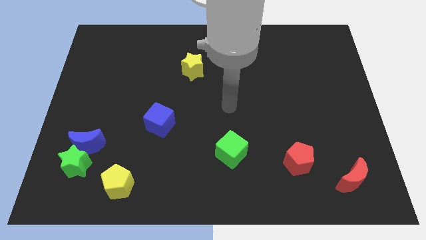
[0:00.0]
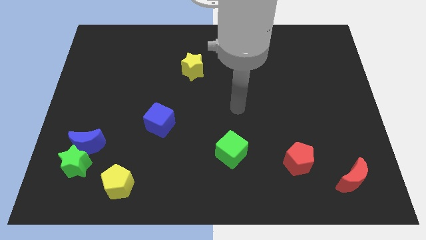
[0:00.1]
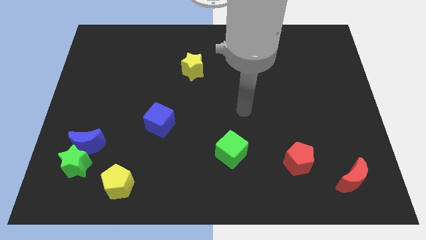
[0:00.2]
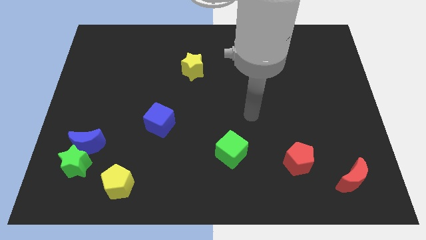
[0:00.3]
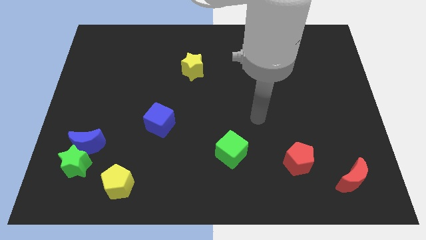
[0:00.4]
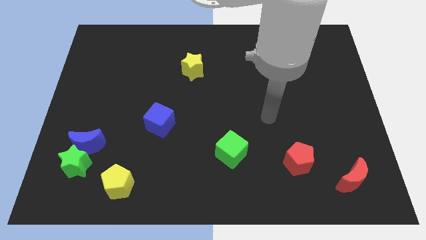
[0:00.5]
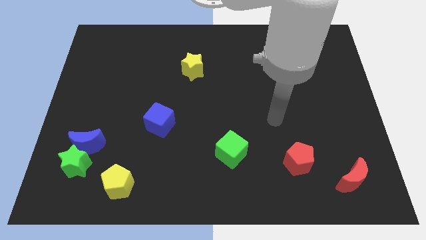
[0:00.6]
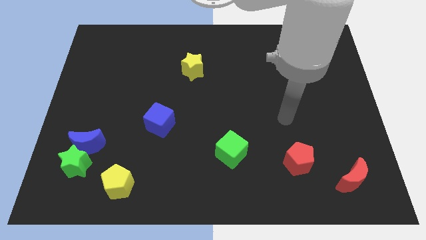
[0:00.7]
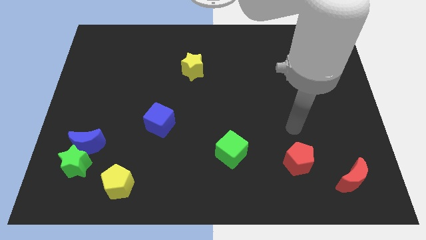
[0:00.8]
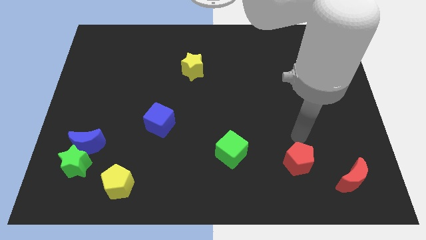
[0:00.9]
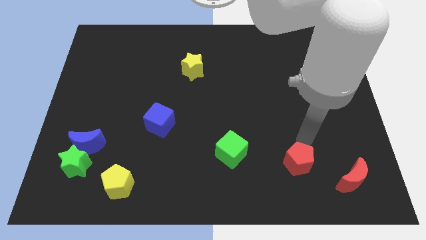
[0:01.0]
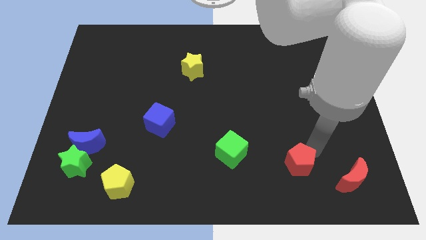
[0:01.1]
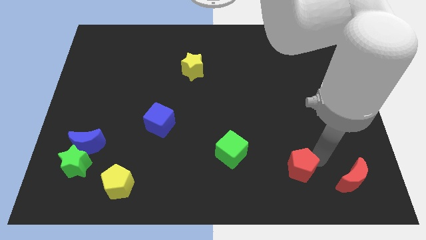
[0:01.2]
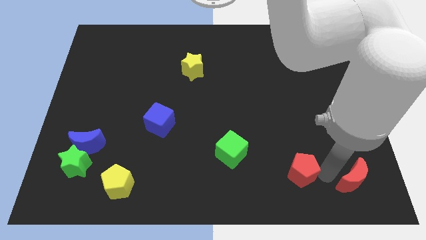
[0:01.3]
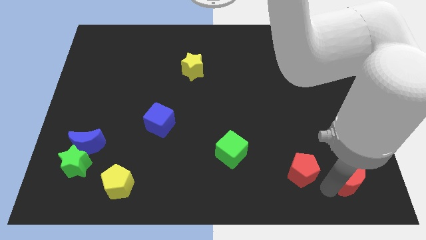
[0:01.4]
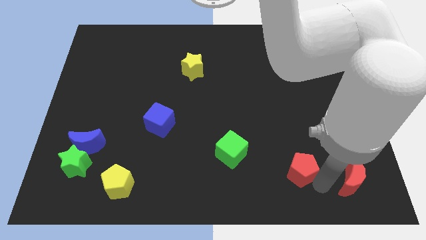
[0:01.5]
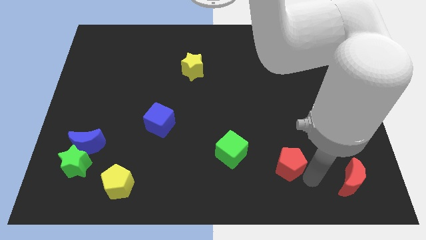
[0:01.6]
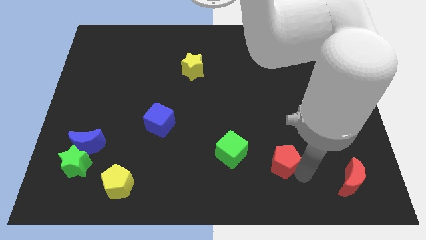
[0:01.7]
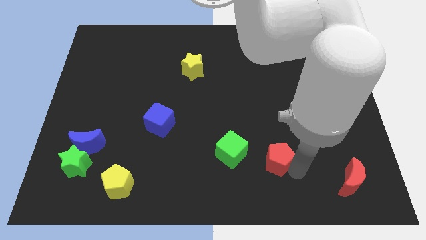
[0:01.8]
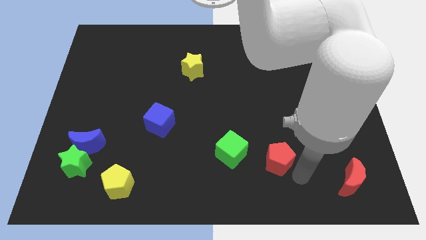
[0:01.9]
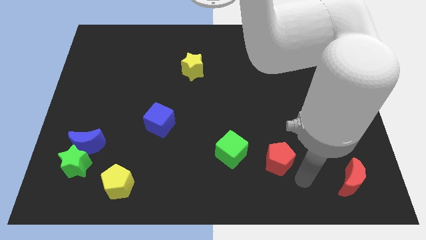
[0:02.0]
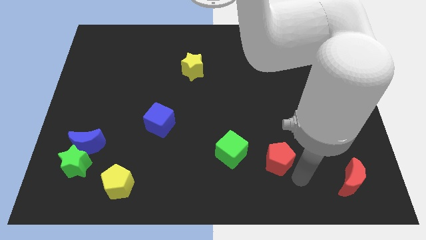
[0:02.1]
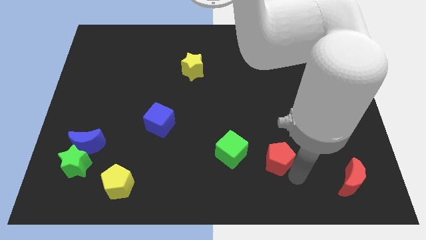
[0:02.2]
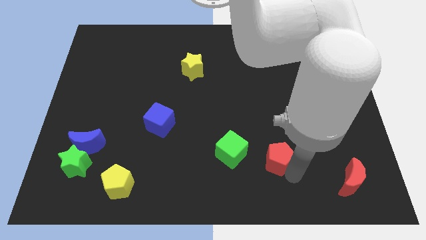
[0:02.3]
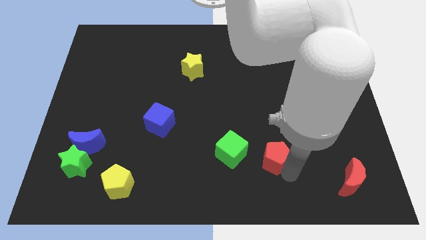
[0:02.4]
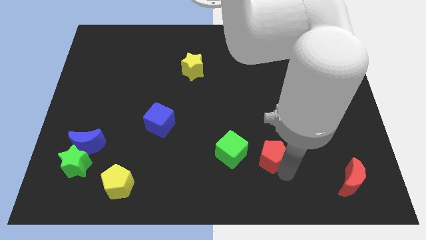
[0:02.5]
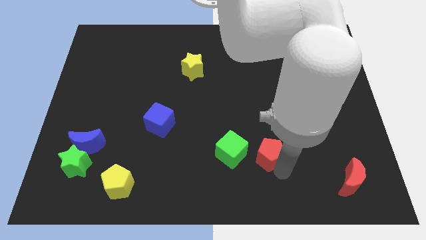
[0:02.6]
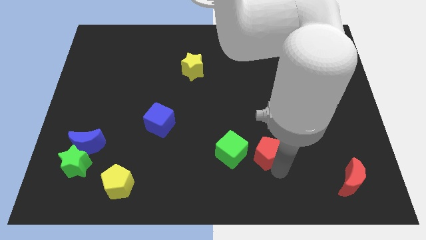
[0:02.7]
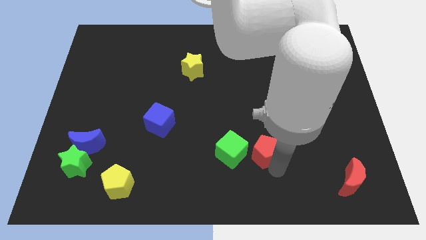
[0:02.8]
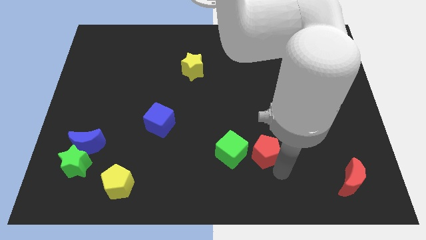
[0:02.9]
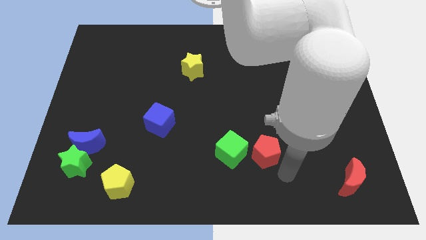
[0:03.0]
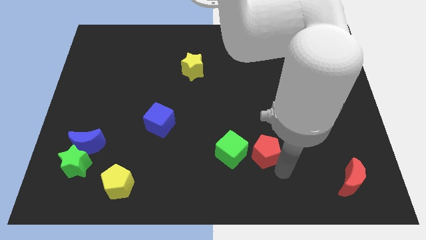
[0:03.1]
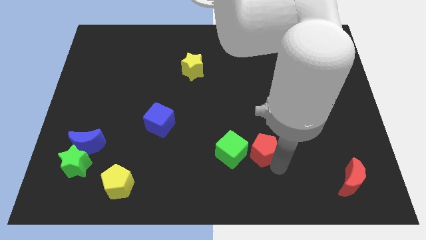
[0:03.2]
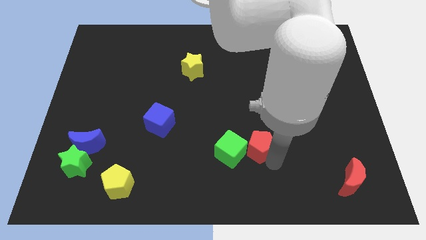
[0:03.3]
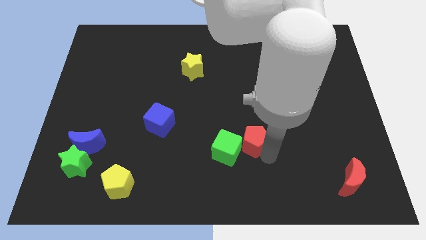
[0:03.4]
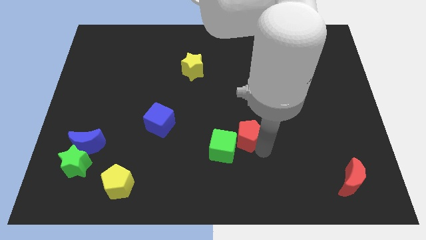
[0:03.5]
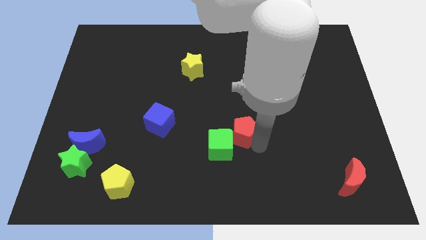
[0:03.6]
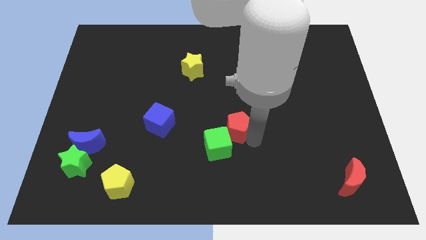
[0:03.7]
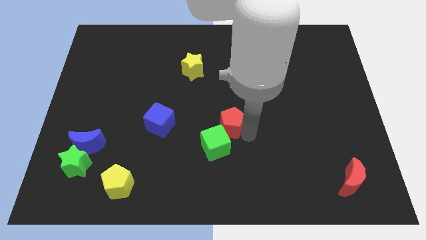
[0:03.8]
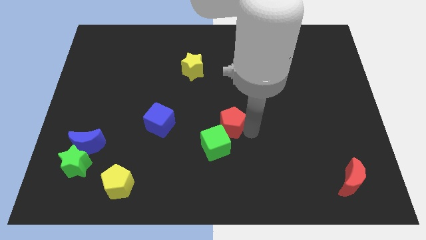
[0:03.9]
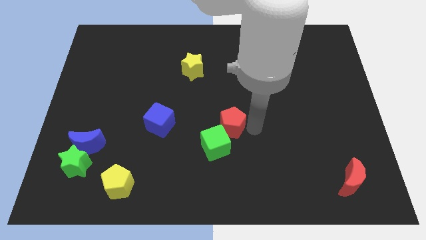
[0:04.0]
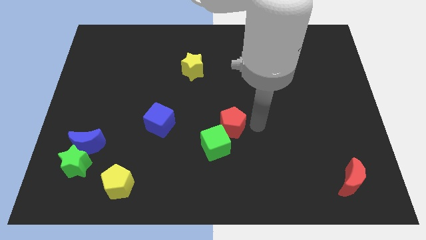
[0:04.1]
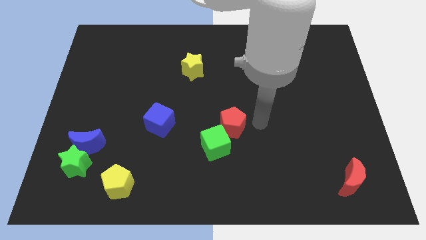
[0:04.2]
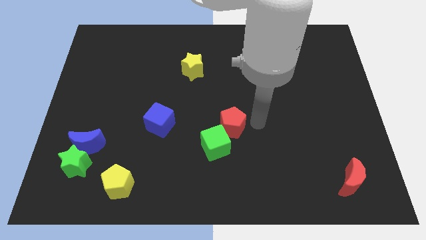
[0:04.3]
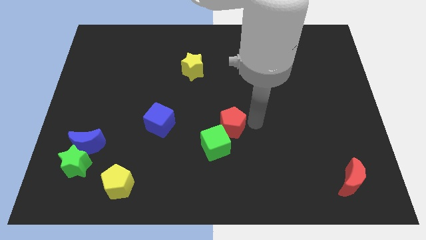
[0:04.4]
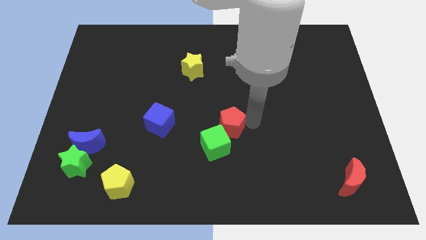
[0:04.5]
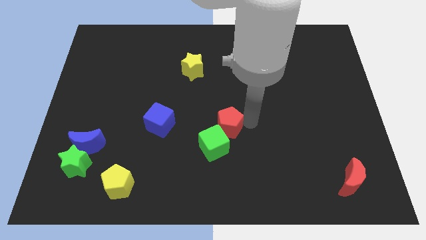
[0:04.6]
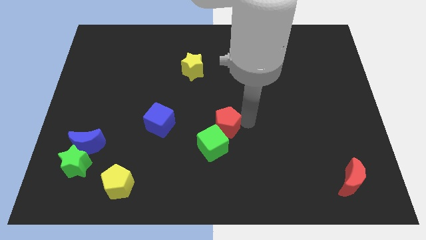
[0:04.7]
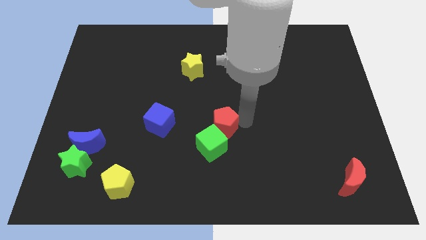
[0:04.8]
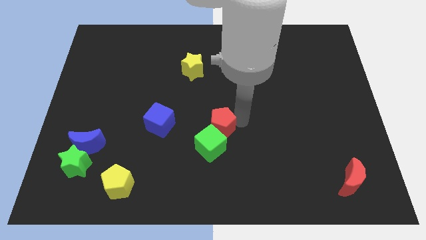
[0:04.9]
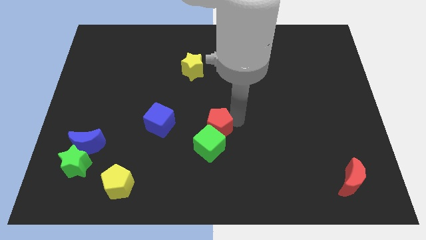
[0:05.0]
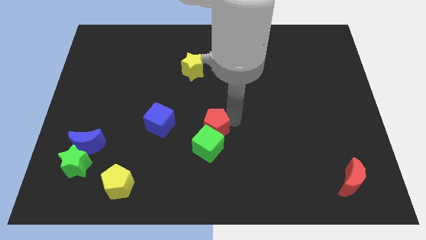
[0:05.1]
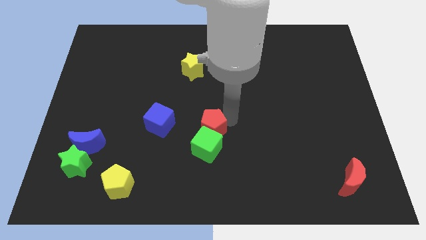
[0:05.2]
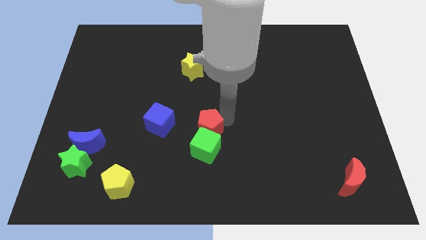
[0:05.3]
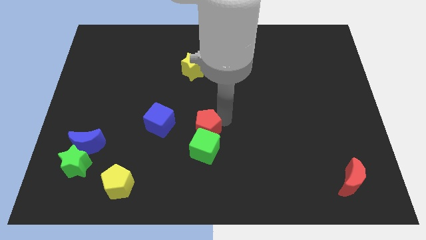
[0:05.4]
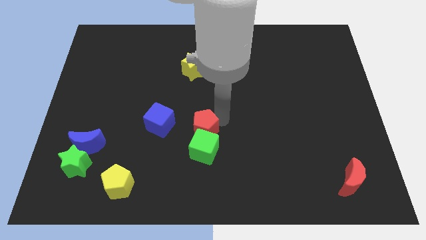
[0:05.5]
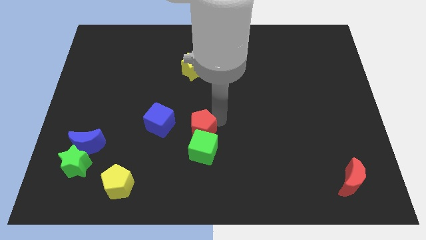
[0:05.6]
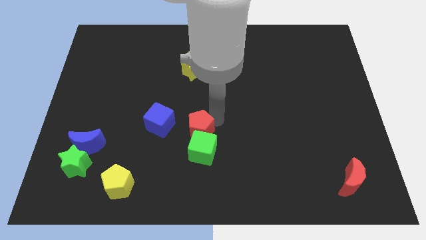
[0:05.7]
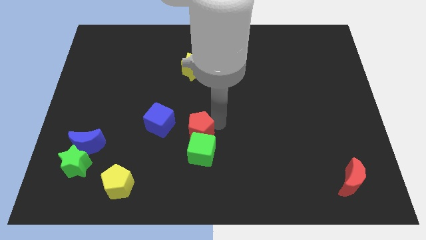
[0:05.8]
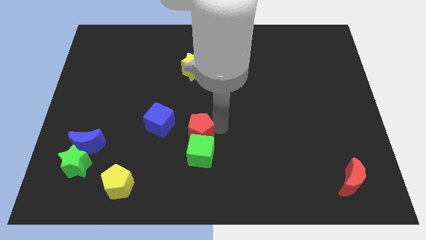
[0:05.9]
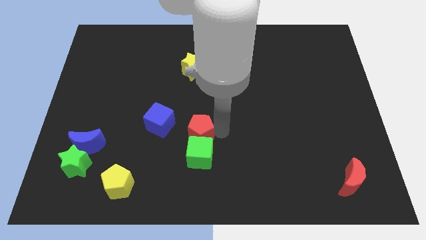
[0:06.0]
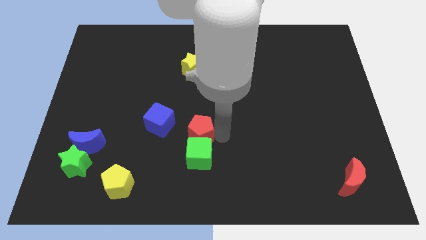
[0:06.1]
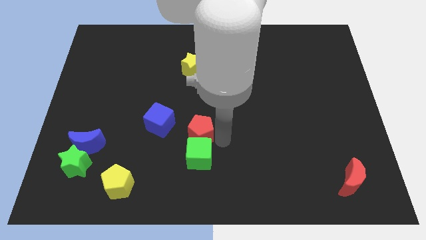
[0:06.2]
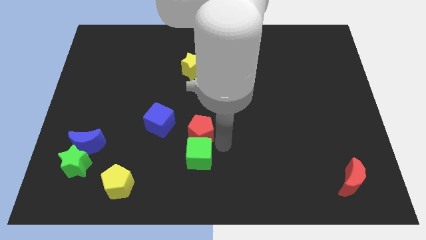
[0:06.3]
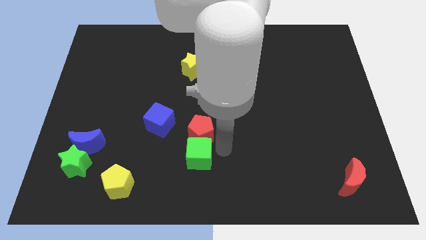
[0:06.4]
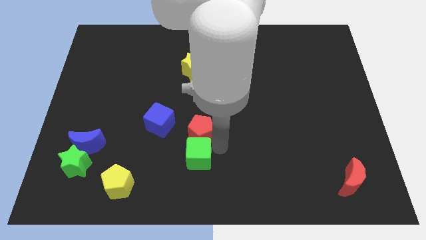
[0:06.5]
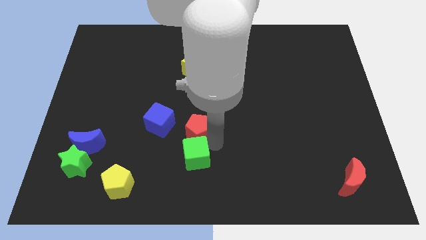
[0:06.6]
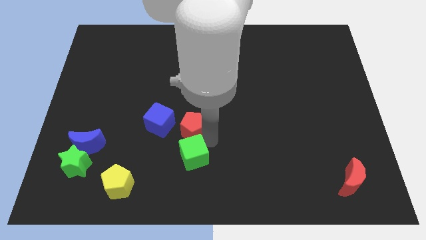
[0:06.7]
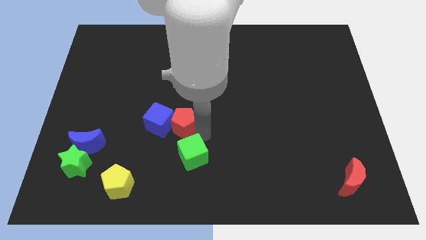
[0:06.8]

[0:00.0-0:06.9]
move the red pentagon close to the blue cube

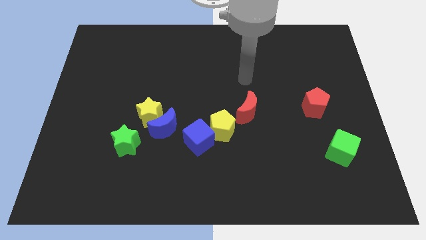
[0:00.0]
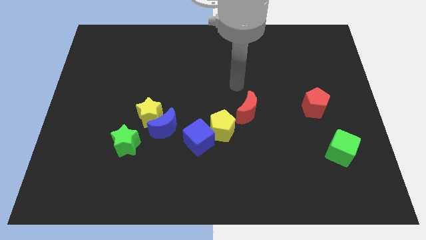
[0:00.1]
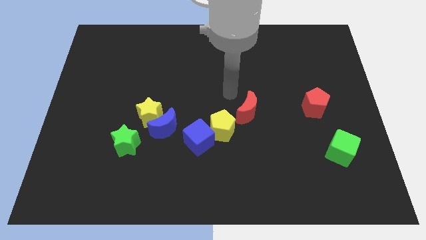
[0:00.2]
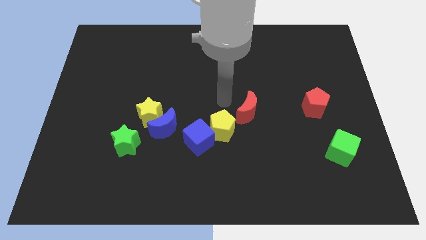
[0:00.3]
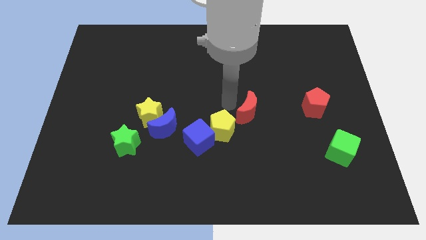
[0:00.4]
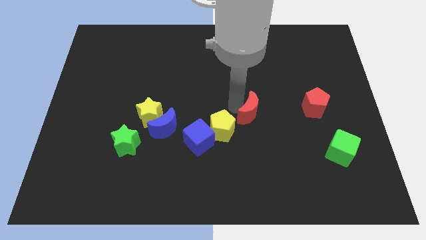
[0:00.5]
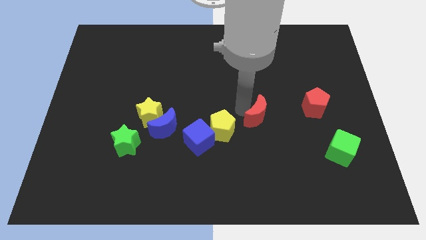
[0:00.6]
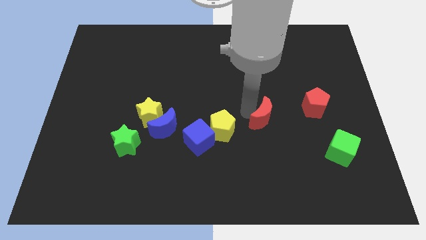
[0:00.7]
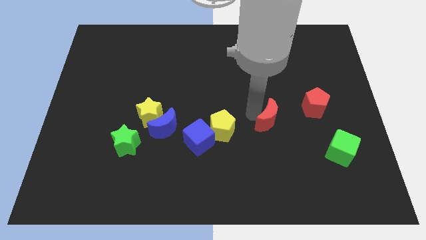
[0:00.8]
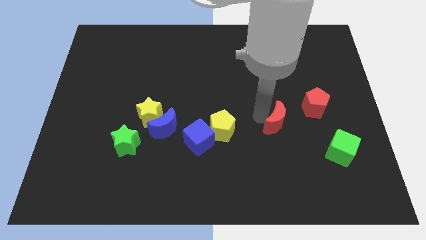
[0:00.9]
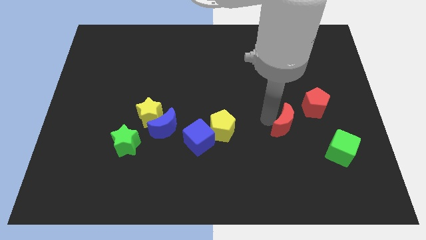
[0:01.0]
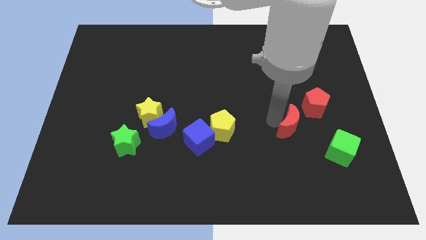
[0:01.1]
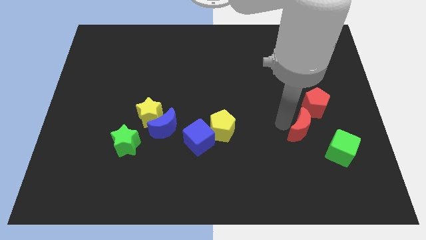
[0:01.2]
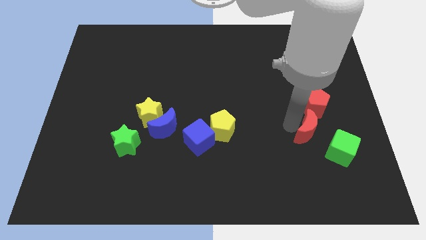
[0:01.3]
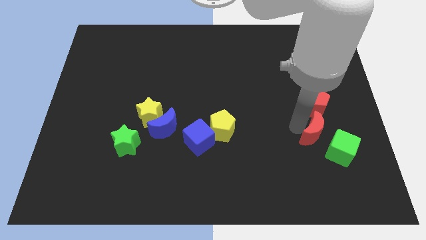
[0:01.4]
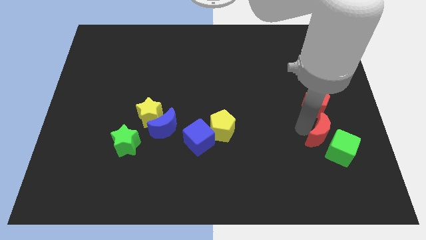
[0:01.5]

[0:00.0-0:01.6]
slide the red moon next to the green cube
